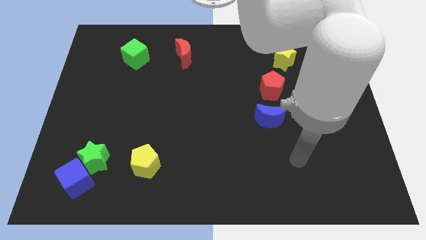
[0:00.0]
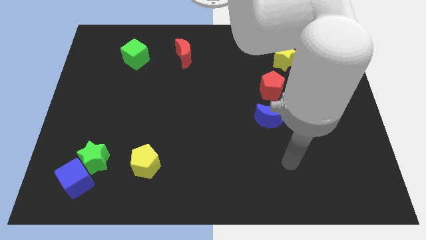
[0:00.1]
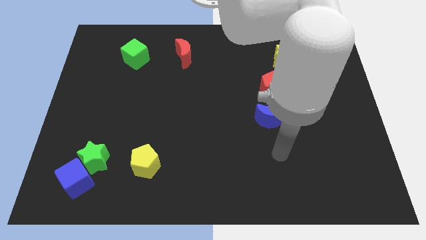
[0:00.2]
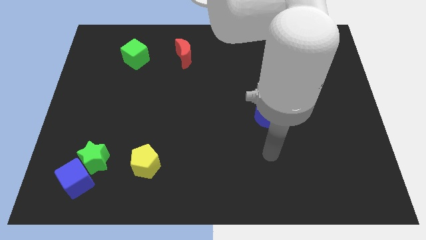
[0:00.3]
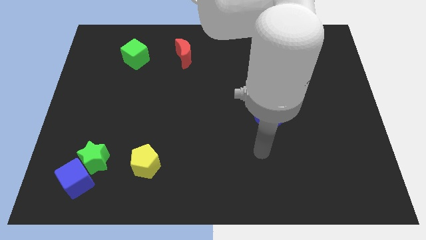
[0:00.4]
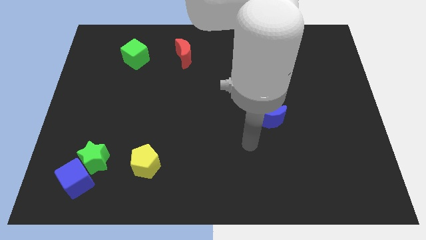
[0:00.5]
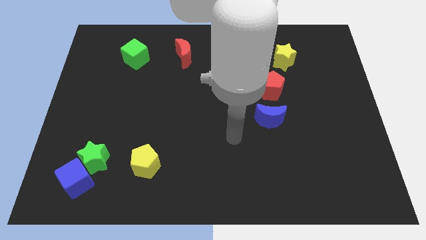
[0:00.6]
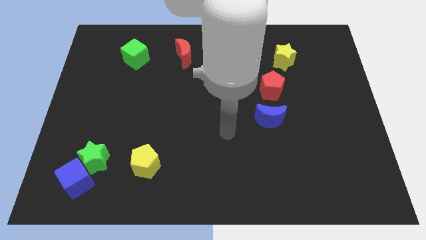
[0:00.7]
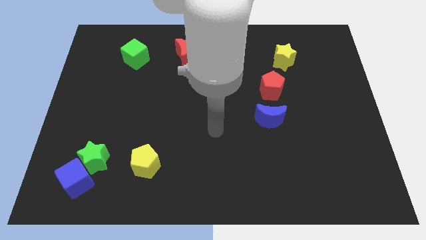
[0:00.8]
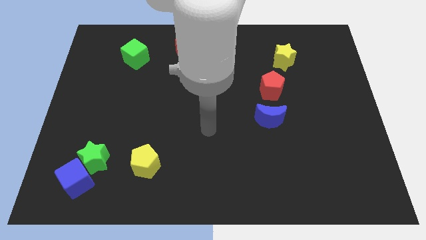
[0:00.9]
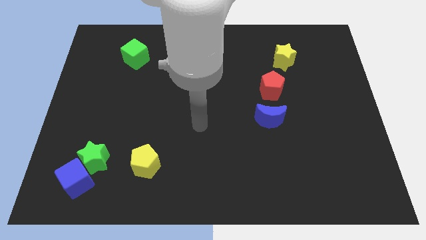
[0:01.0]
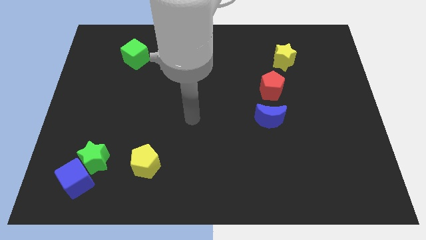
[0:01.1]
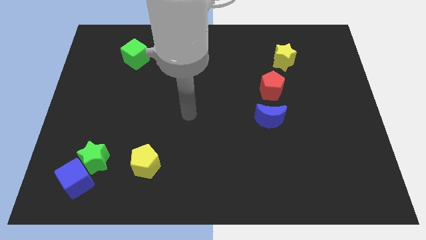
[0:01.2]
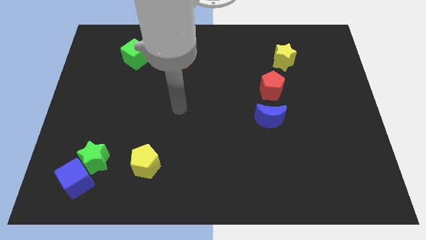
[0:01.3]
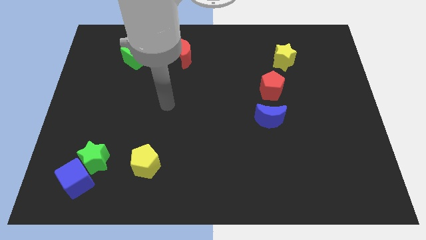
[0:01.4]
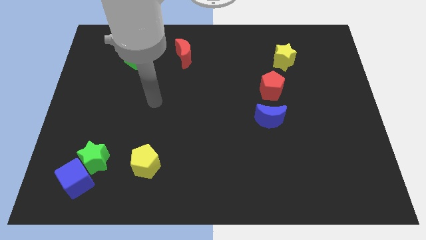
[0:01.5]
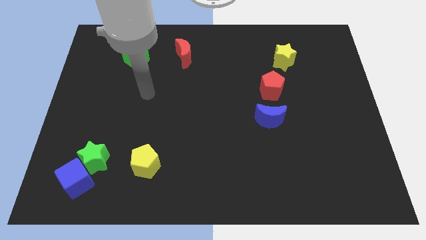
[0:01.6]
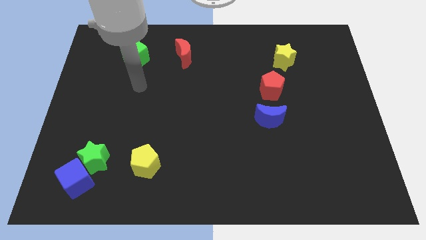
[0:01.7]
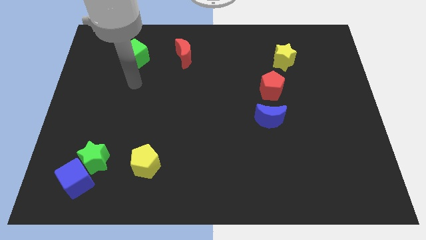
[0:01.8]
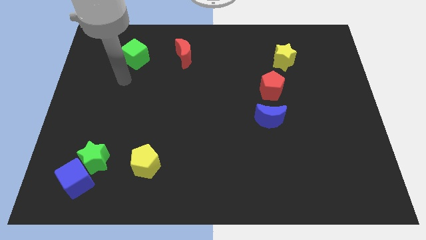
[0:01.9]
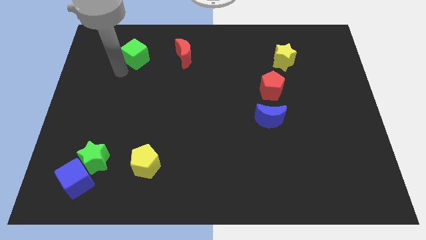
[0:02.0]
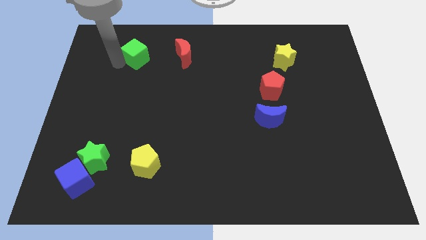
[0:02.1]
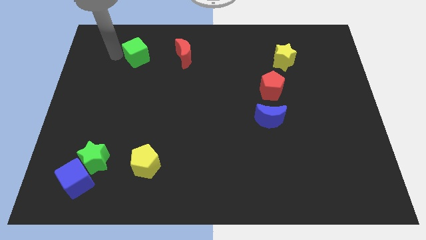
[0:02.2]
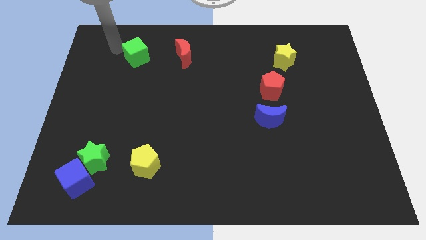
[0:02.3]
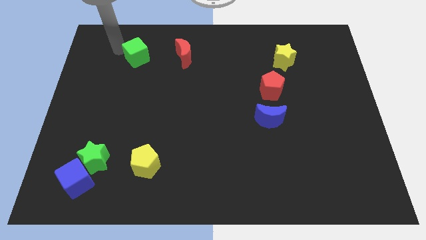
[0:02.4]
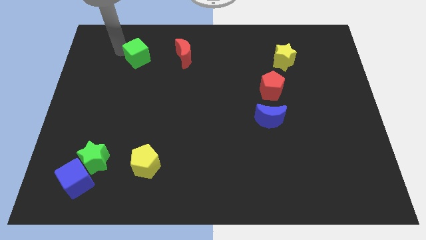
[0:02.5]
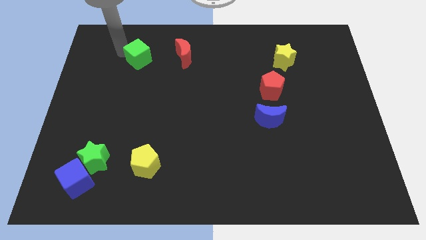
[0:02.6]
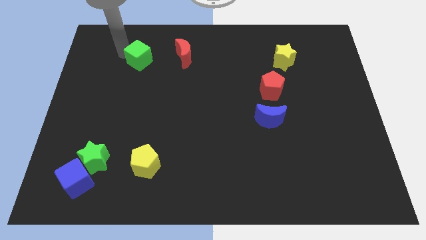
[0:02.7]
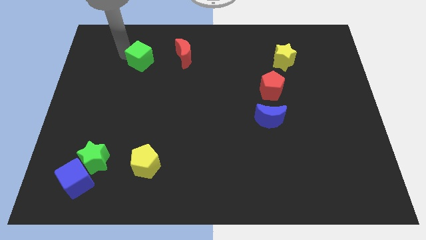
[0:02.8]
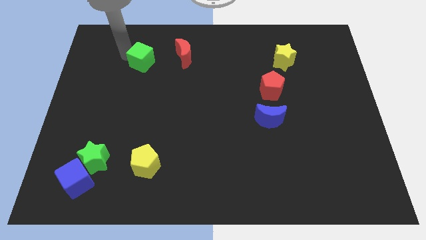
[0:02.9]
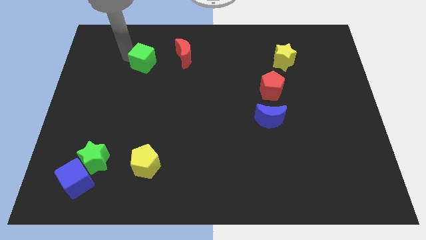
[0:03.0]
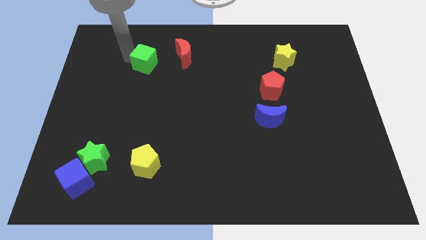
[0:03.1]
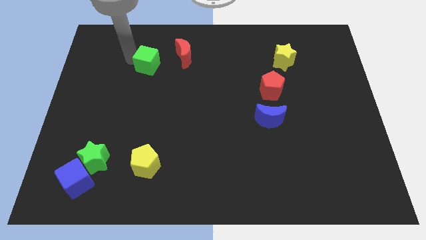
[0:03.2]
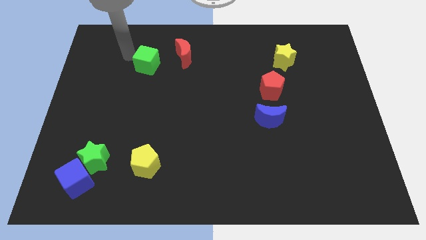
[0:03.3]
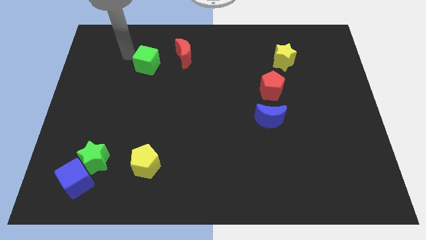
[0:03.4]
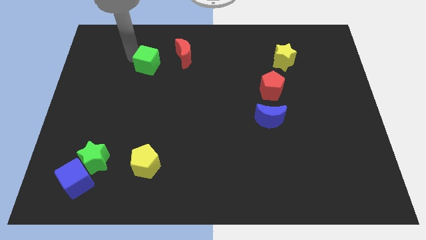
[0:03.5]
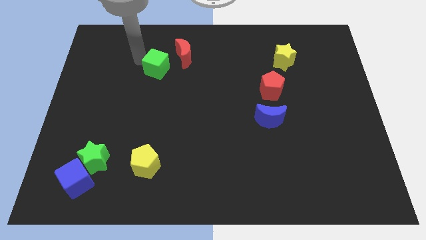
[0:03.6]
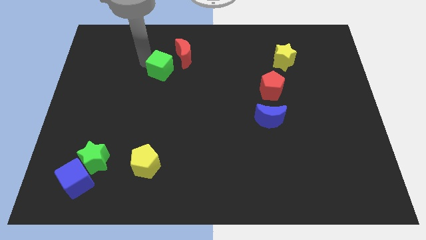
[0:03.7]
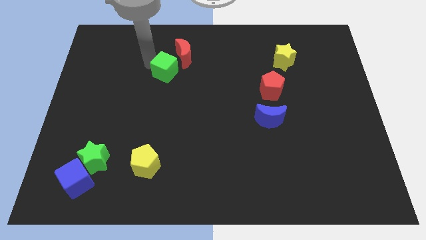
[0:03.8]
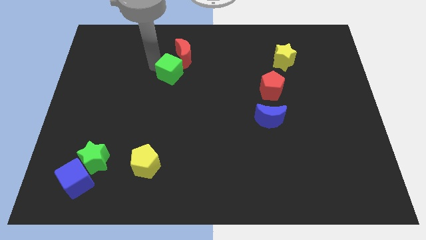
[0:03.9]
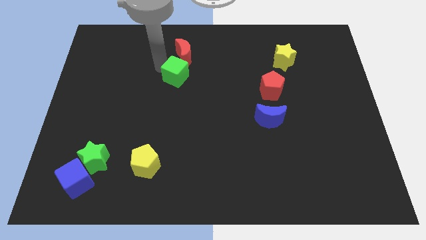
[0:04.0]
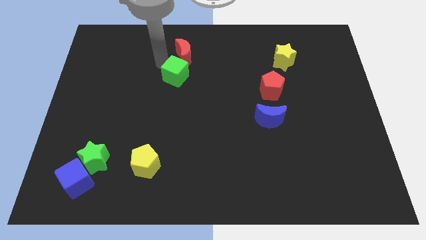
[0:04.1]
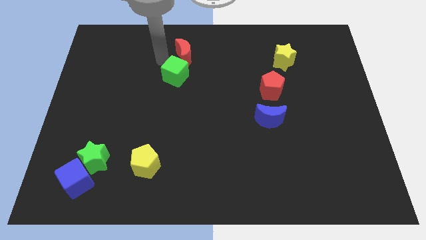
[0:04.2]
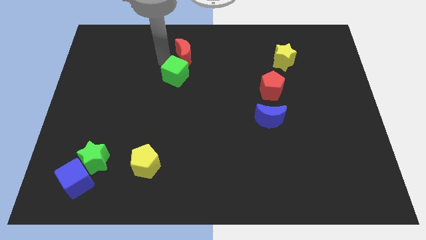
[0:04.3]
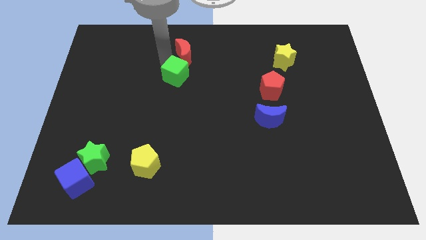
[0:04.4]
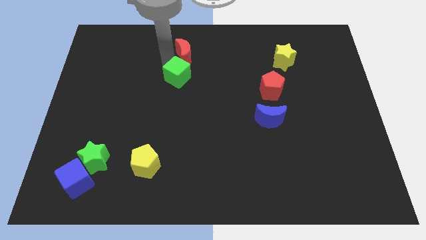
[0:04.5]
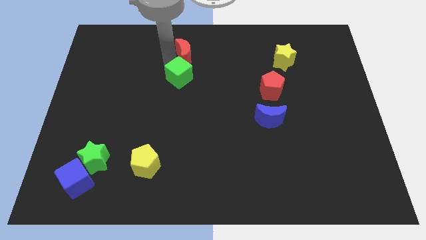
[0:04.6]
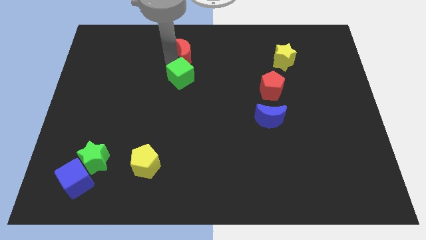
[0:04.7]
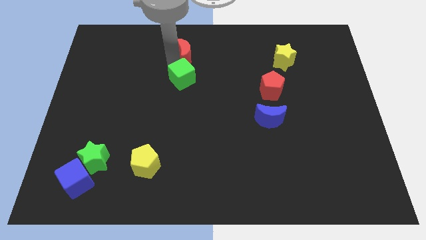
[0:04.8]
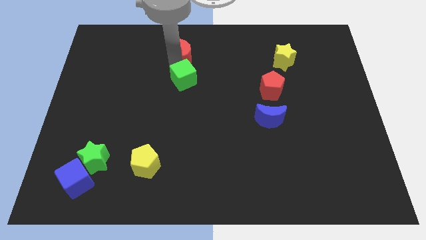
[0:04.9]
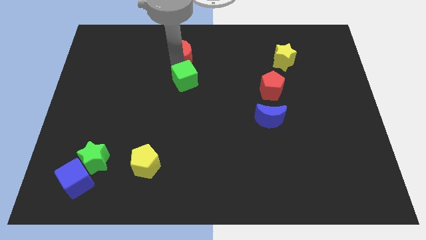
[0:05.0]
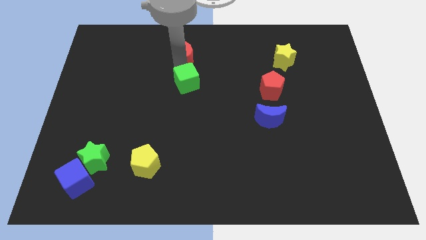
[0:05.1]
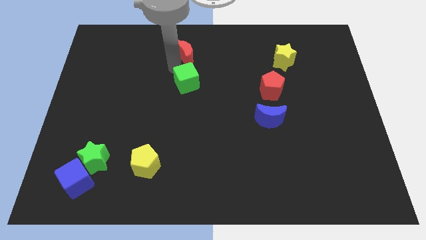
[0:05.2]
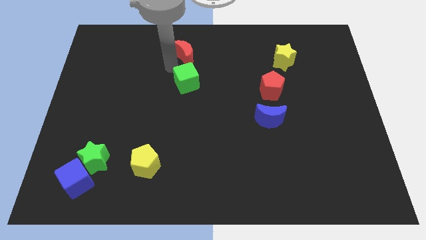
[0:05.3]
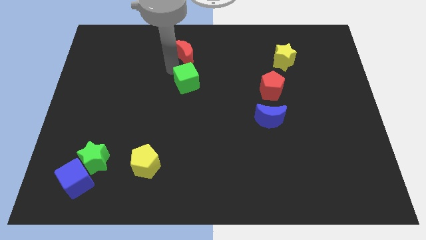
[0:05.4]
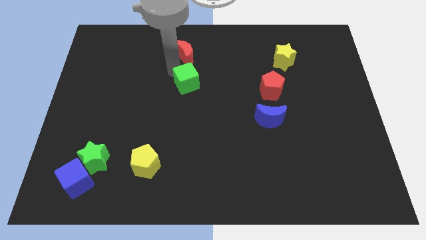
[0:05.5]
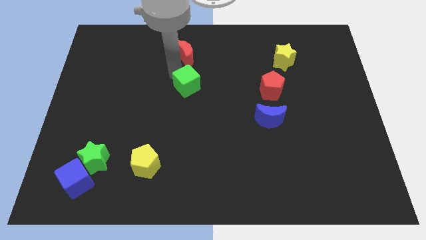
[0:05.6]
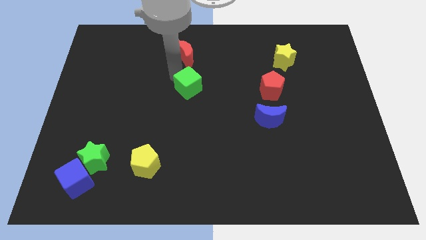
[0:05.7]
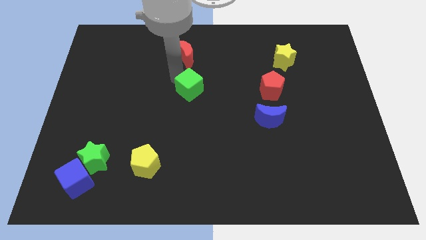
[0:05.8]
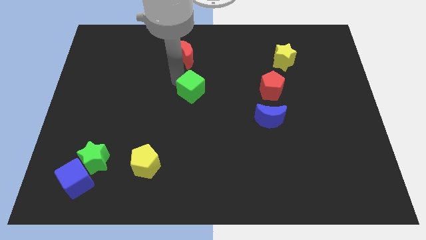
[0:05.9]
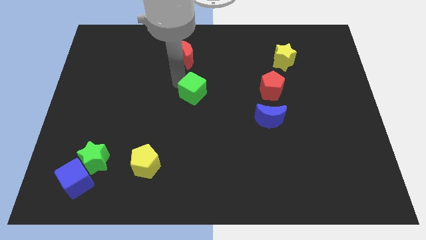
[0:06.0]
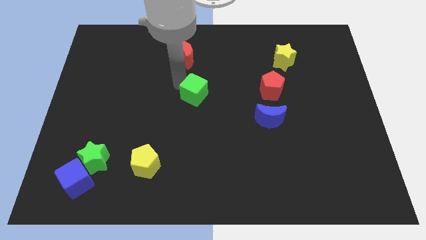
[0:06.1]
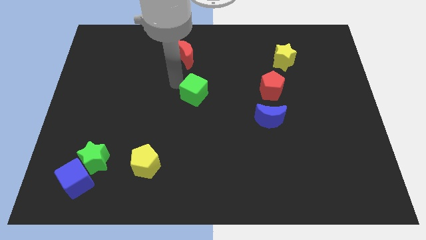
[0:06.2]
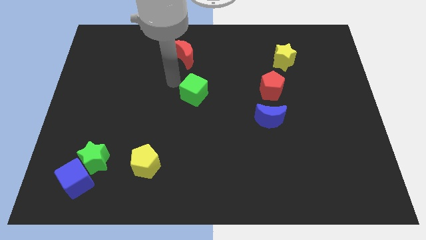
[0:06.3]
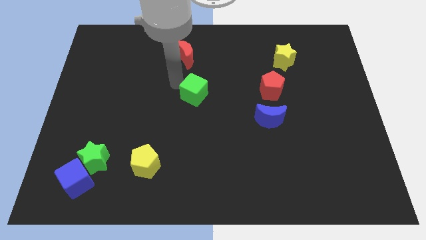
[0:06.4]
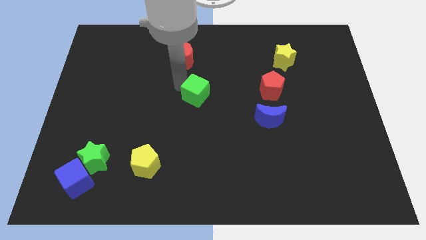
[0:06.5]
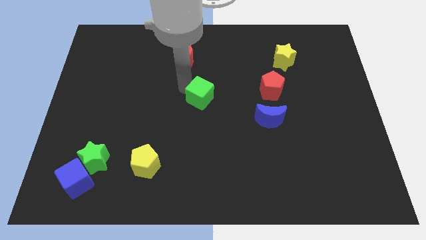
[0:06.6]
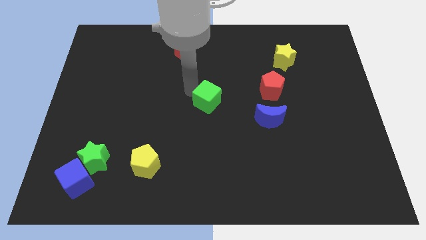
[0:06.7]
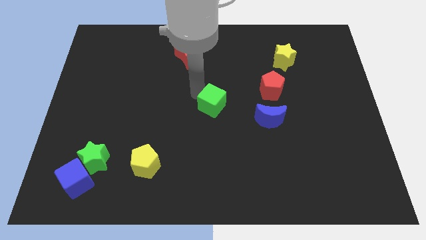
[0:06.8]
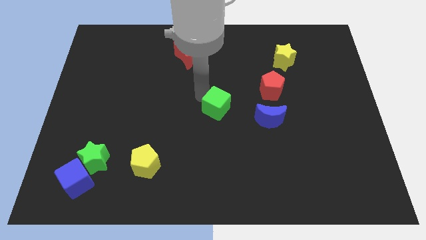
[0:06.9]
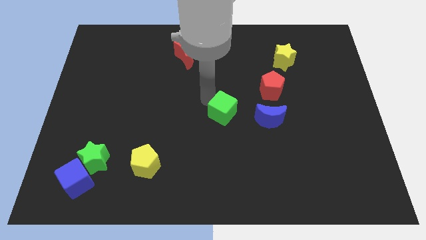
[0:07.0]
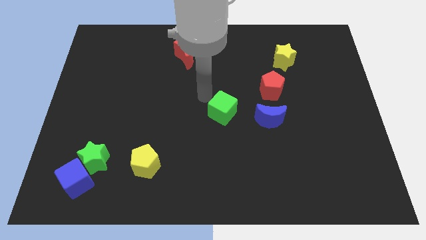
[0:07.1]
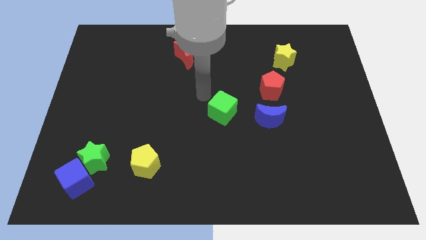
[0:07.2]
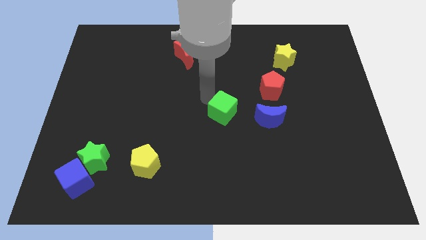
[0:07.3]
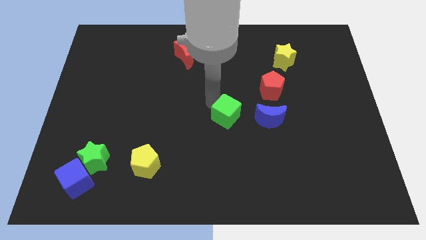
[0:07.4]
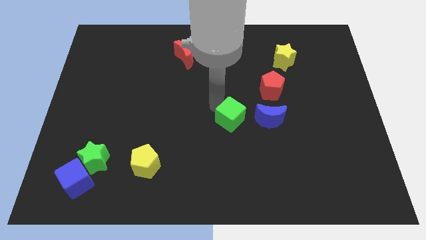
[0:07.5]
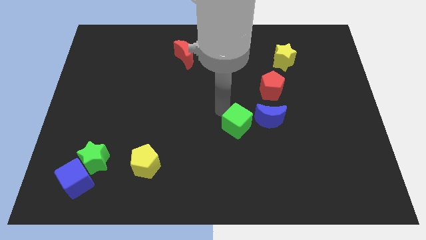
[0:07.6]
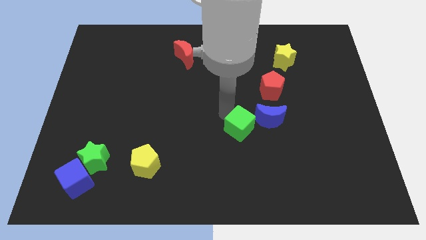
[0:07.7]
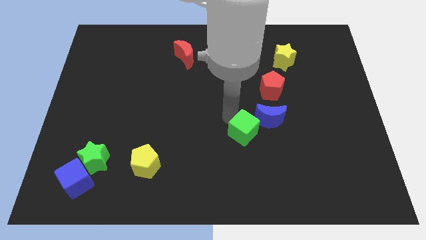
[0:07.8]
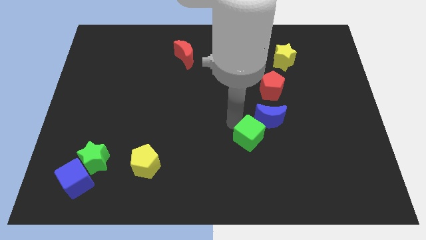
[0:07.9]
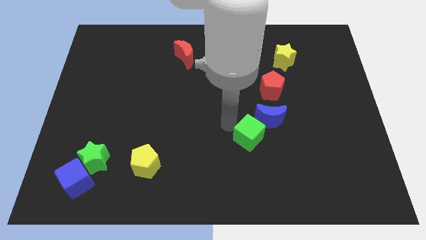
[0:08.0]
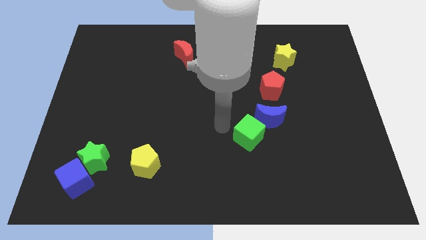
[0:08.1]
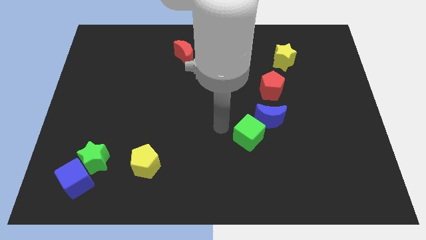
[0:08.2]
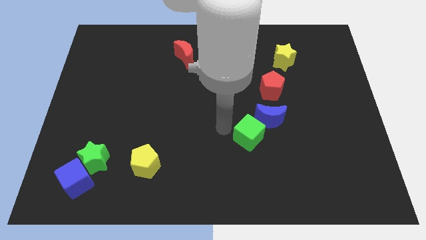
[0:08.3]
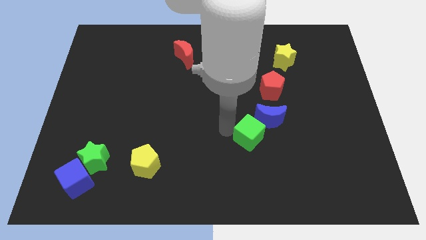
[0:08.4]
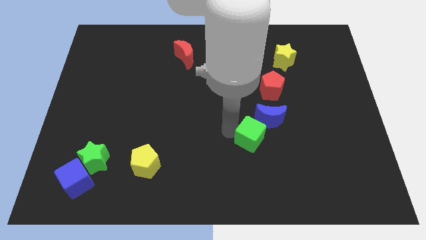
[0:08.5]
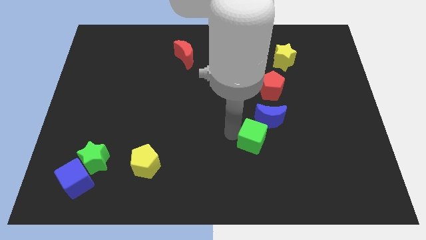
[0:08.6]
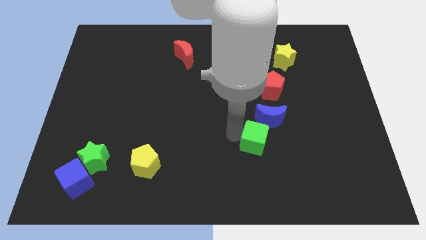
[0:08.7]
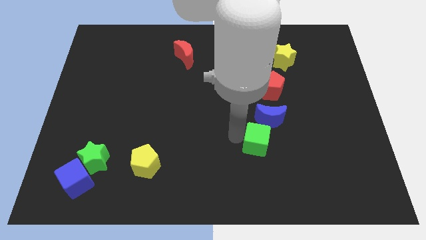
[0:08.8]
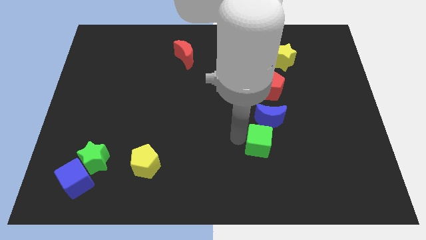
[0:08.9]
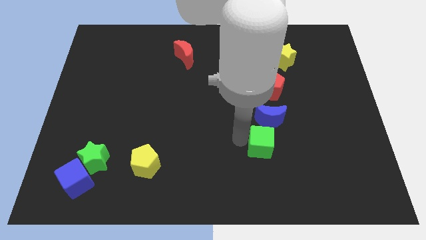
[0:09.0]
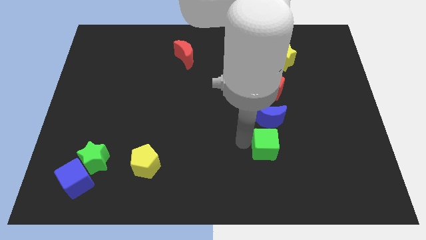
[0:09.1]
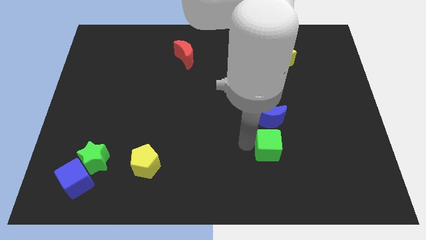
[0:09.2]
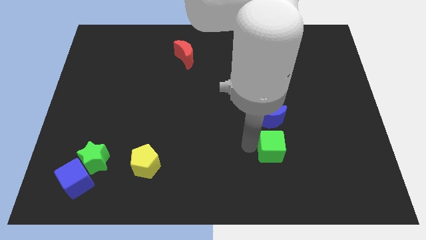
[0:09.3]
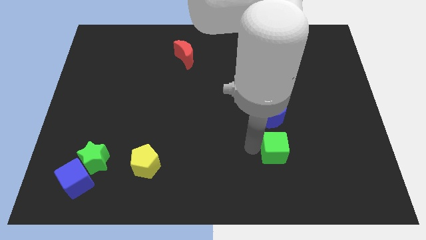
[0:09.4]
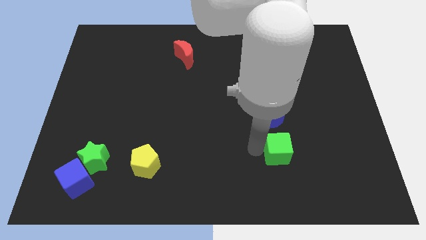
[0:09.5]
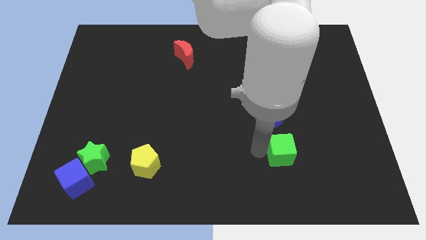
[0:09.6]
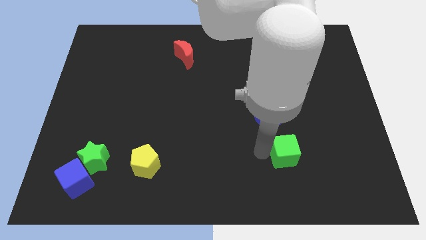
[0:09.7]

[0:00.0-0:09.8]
push the green cube diagonally down and to the right of the blue moon
